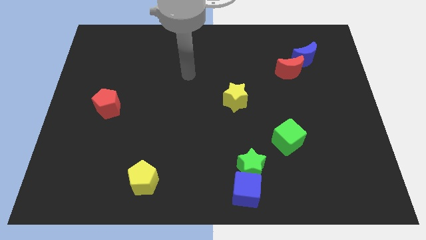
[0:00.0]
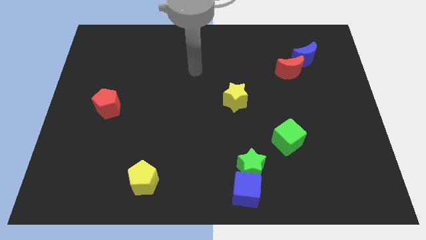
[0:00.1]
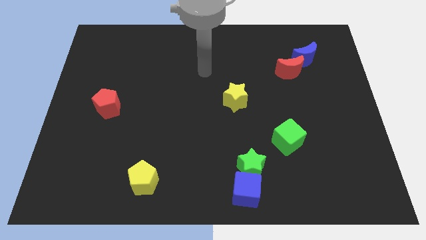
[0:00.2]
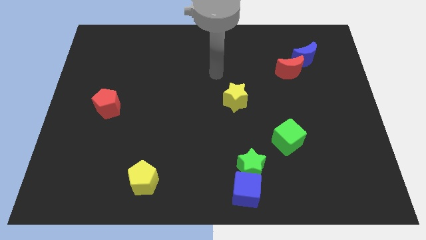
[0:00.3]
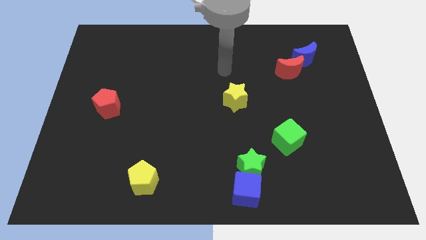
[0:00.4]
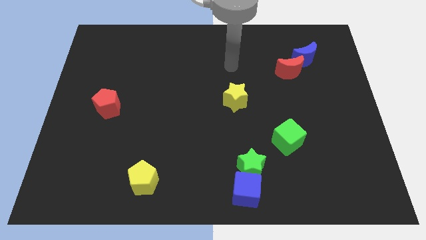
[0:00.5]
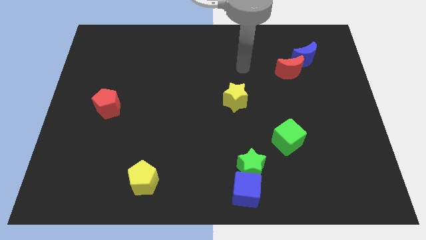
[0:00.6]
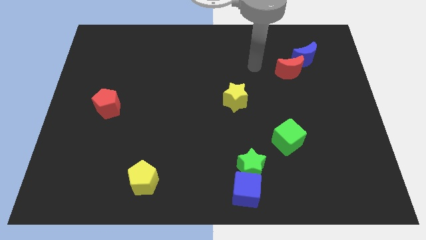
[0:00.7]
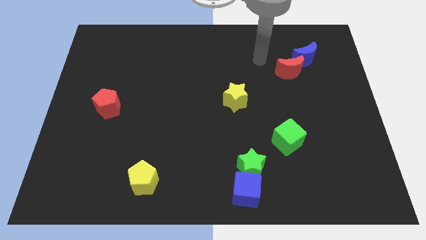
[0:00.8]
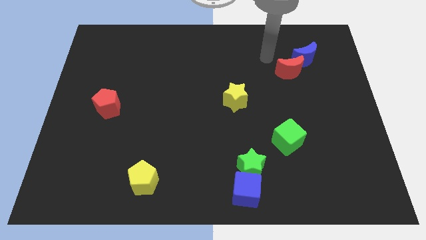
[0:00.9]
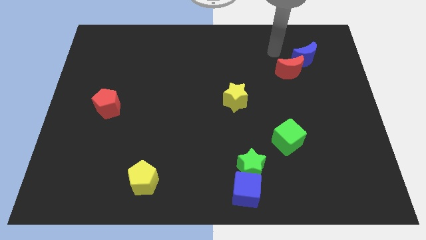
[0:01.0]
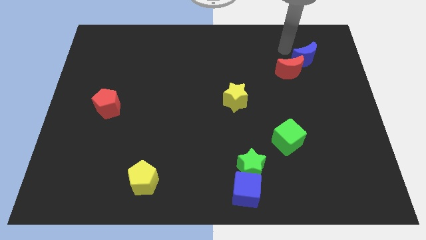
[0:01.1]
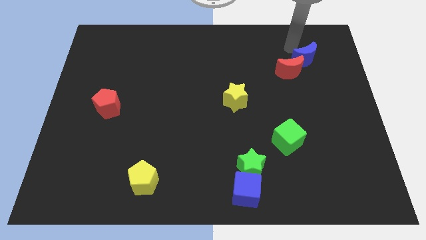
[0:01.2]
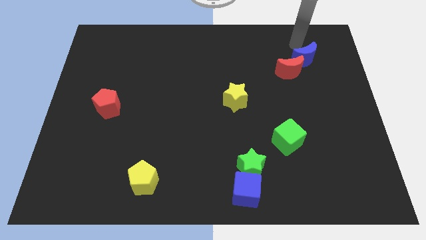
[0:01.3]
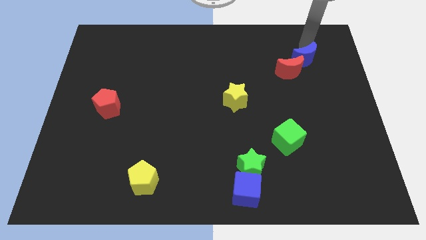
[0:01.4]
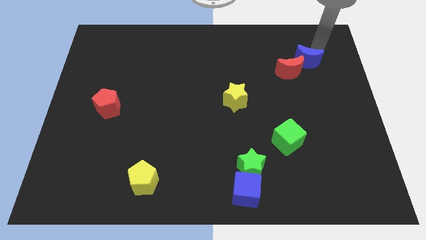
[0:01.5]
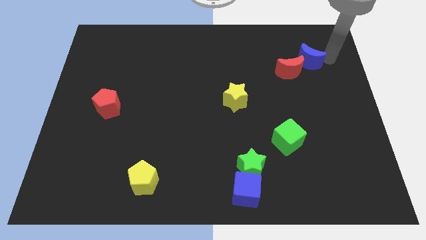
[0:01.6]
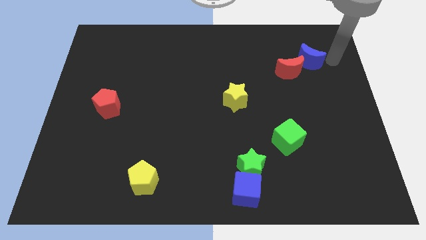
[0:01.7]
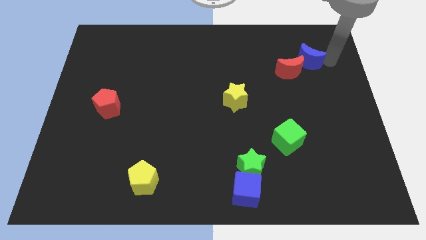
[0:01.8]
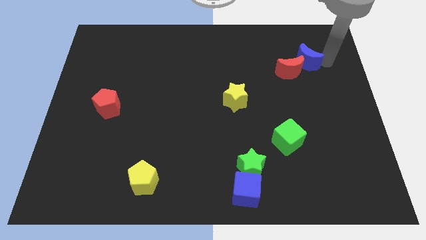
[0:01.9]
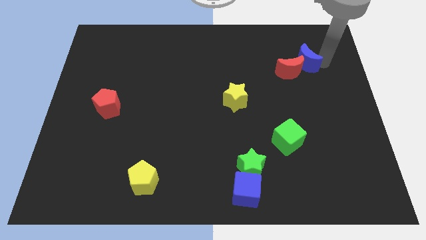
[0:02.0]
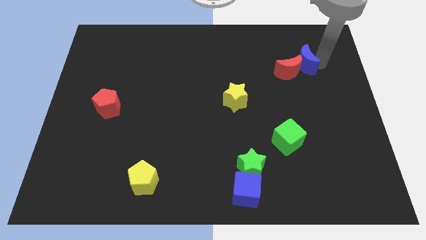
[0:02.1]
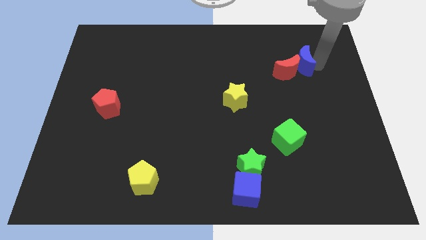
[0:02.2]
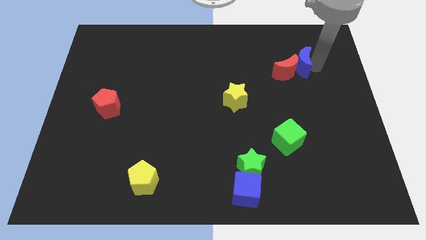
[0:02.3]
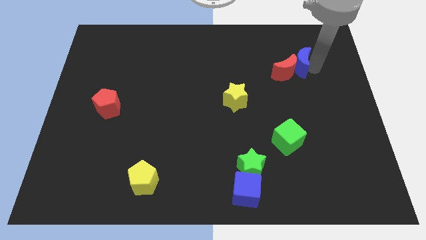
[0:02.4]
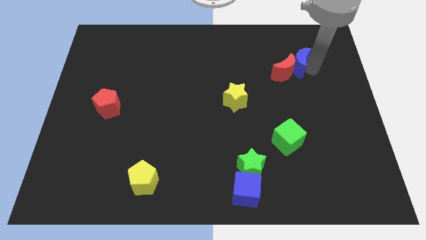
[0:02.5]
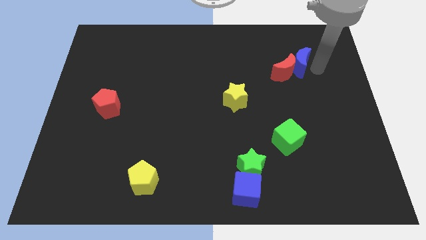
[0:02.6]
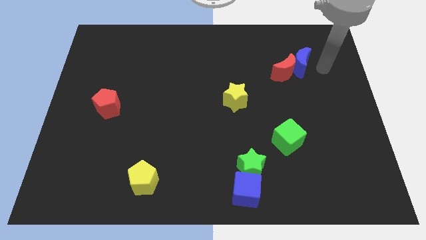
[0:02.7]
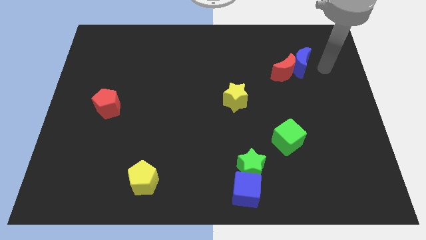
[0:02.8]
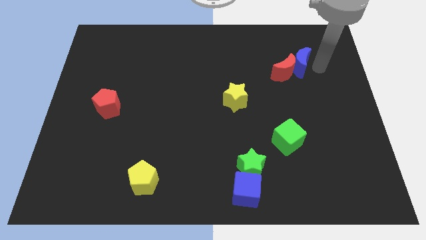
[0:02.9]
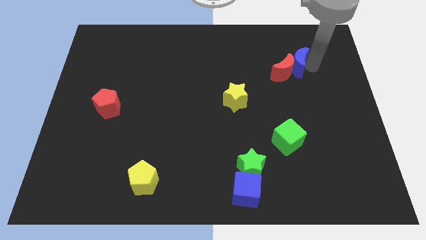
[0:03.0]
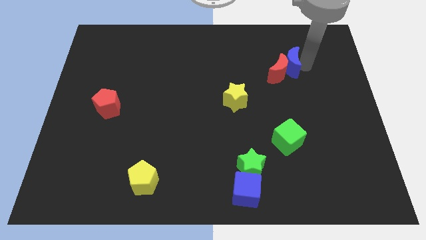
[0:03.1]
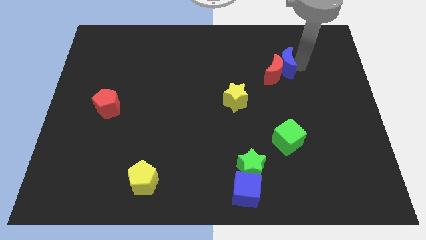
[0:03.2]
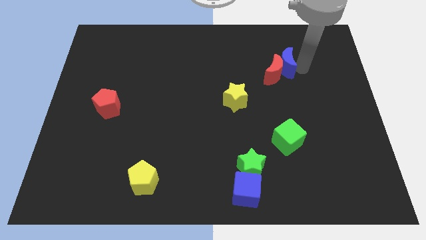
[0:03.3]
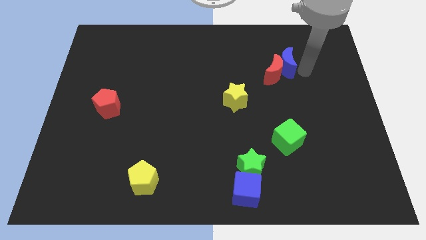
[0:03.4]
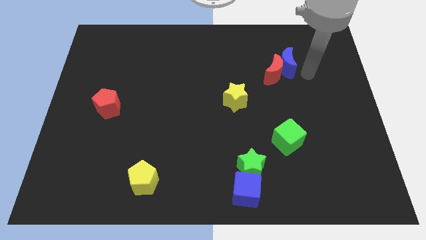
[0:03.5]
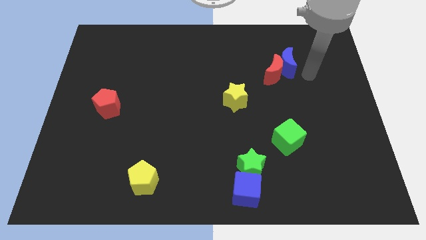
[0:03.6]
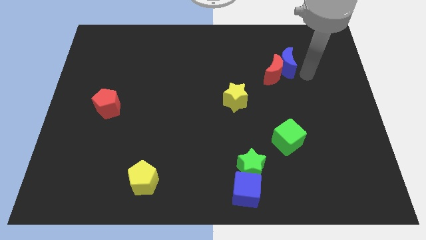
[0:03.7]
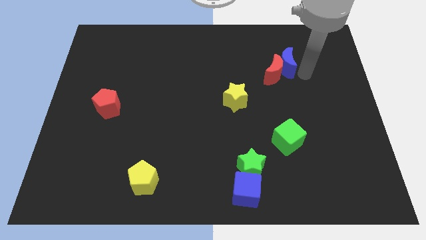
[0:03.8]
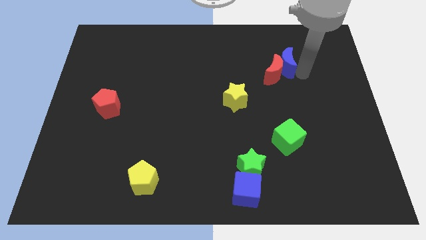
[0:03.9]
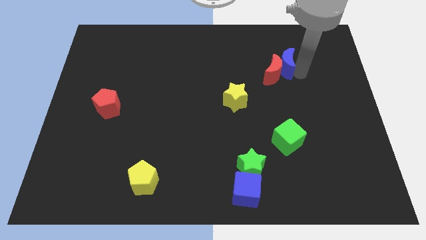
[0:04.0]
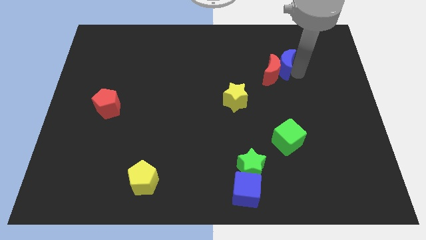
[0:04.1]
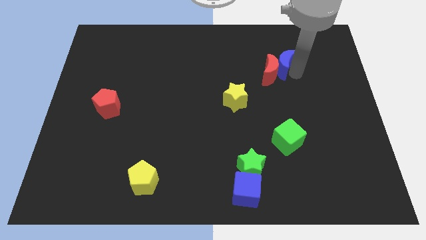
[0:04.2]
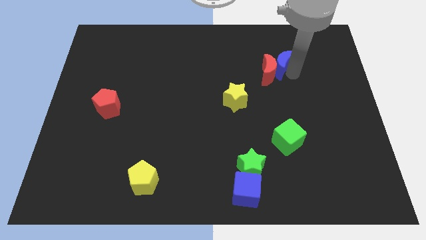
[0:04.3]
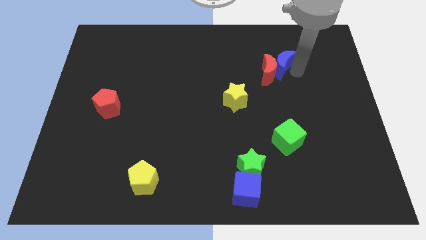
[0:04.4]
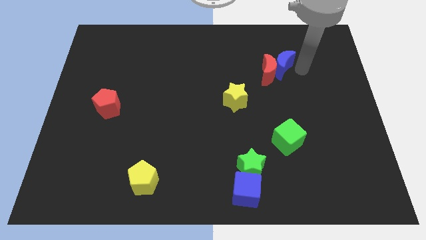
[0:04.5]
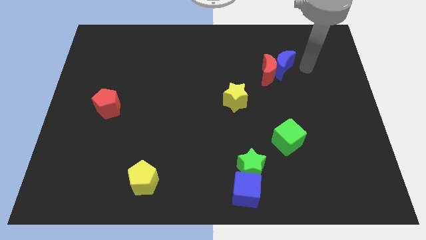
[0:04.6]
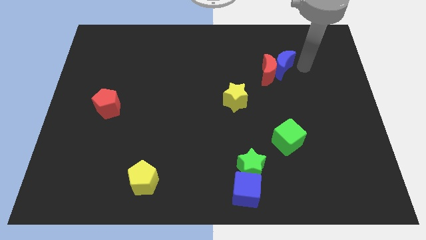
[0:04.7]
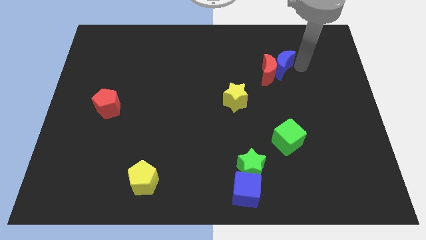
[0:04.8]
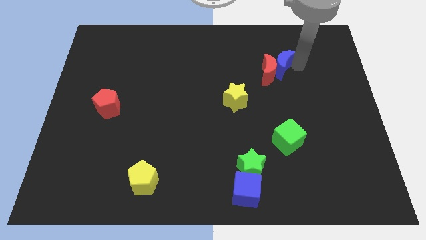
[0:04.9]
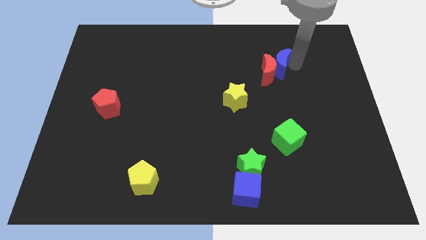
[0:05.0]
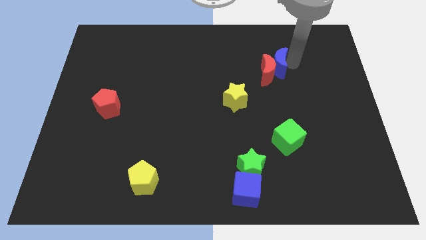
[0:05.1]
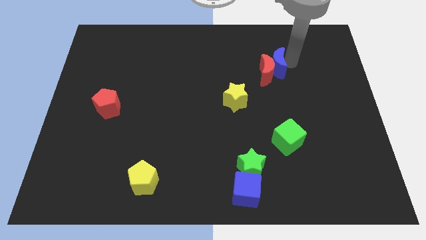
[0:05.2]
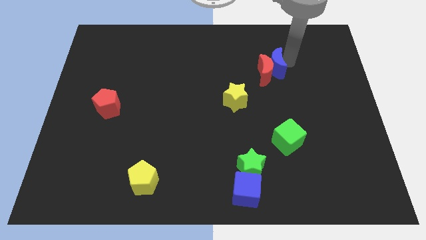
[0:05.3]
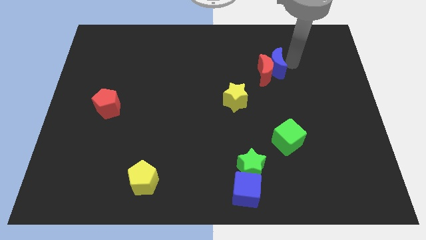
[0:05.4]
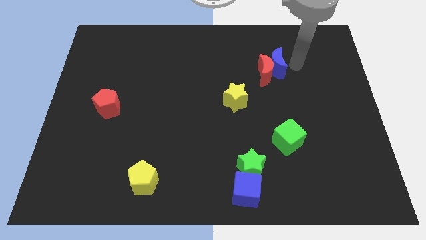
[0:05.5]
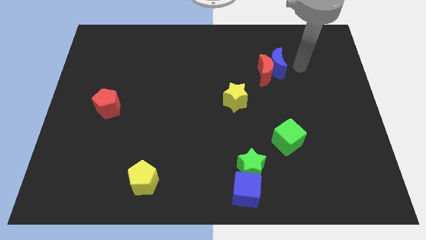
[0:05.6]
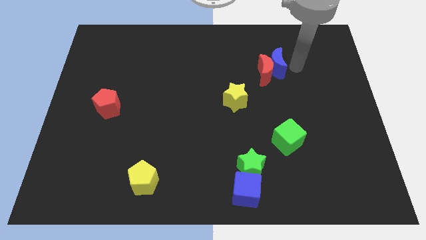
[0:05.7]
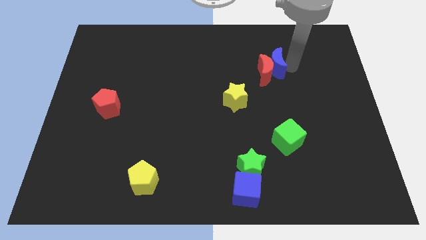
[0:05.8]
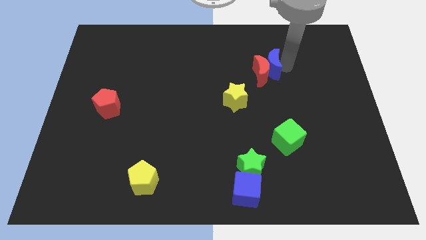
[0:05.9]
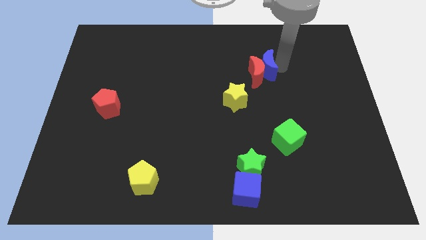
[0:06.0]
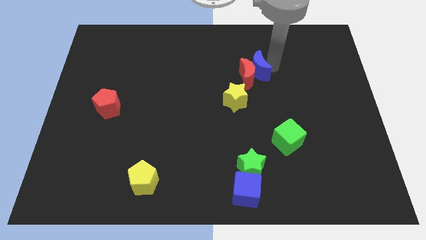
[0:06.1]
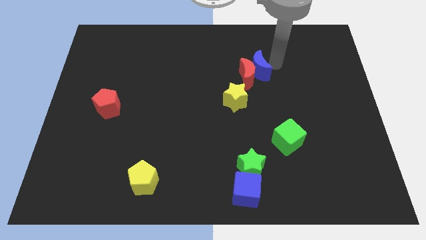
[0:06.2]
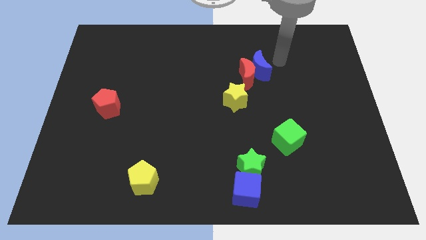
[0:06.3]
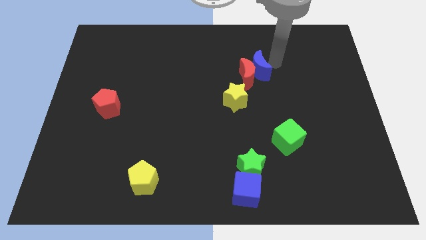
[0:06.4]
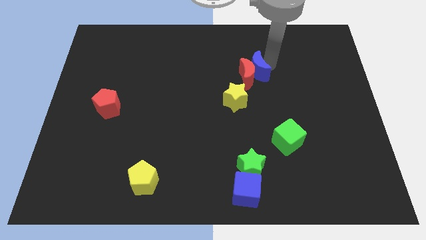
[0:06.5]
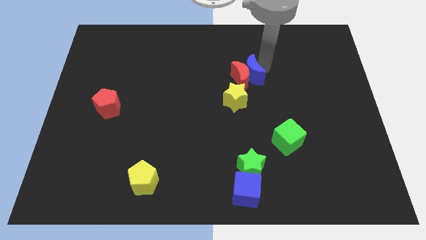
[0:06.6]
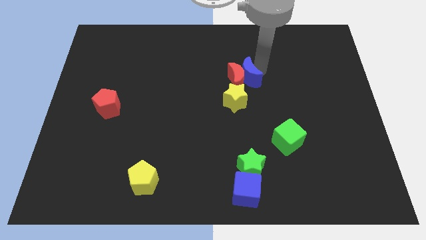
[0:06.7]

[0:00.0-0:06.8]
move the blue moon to the center

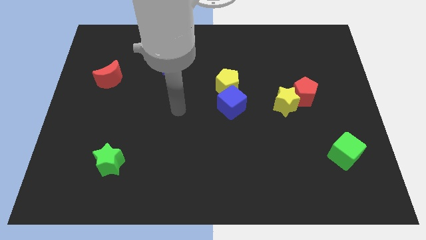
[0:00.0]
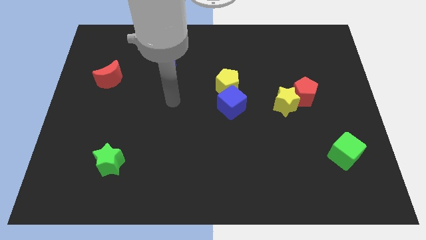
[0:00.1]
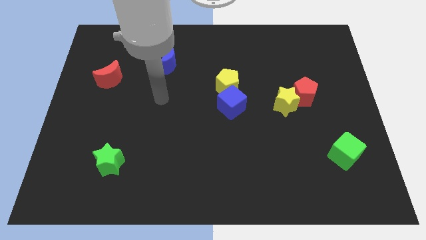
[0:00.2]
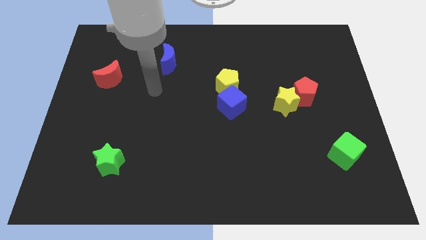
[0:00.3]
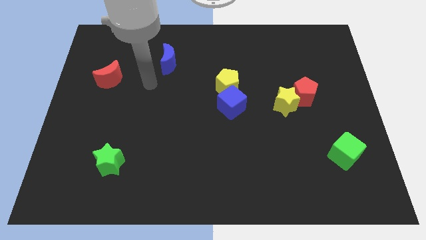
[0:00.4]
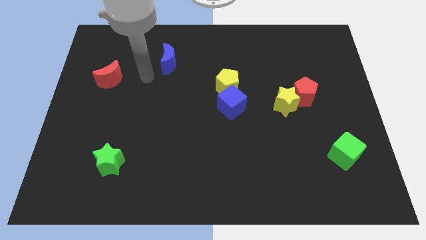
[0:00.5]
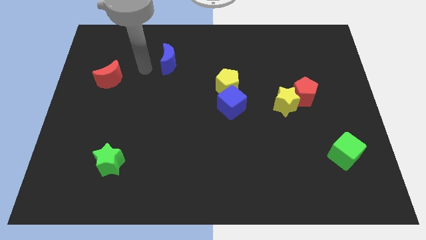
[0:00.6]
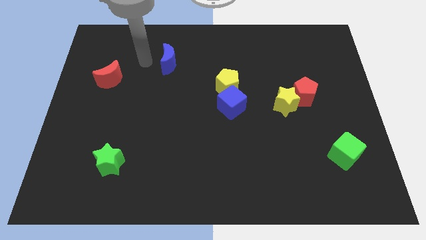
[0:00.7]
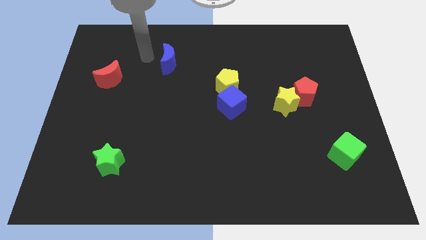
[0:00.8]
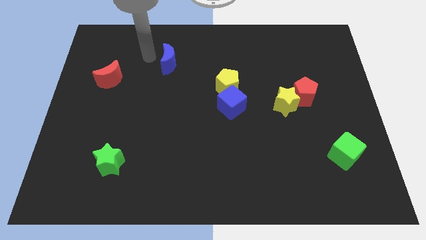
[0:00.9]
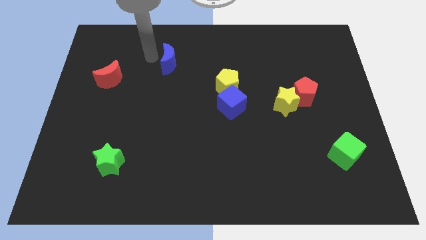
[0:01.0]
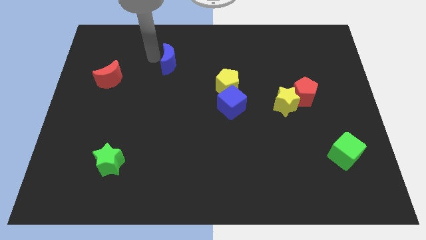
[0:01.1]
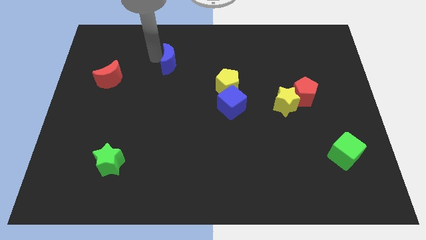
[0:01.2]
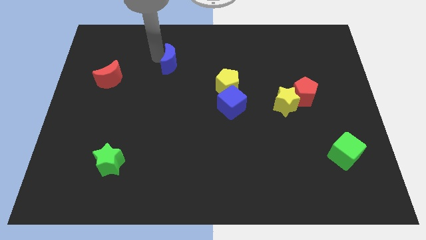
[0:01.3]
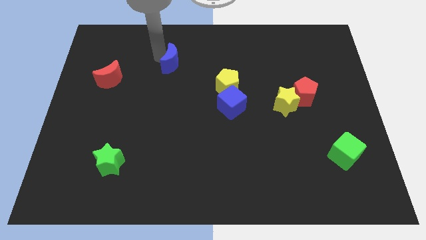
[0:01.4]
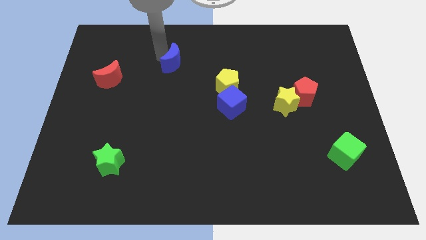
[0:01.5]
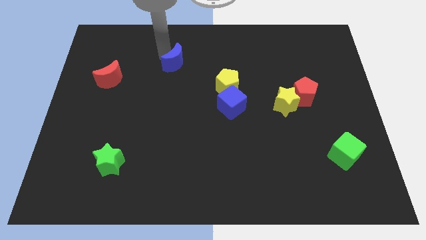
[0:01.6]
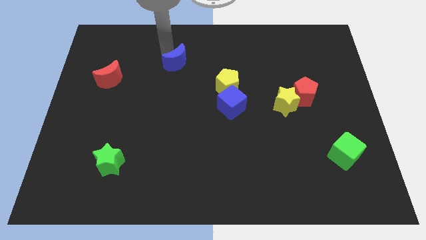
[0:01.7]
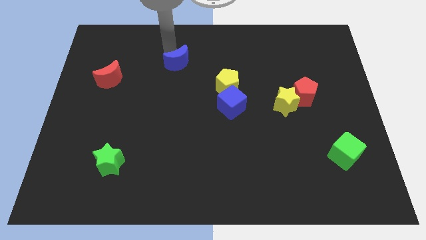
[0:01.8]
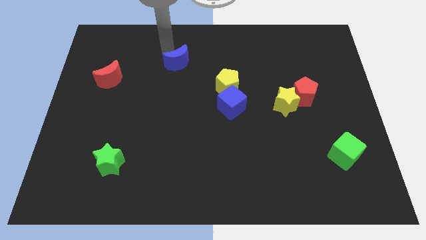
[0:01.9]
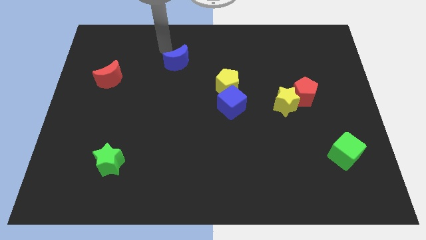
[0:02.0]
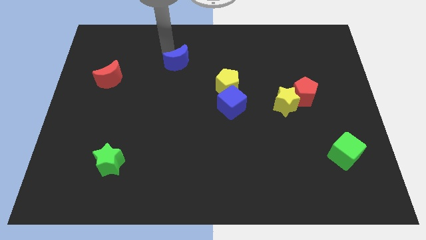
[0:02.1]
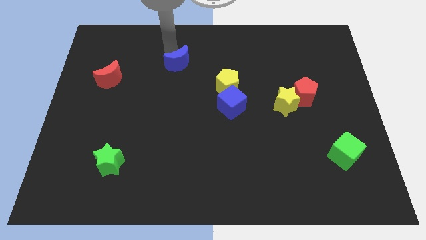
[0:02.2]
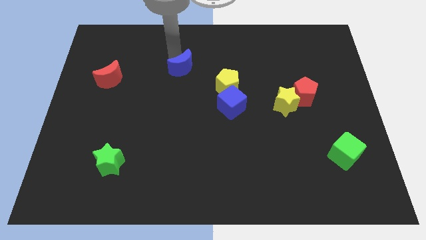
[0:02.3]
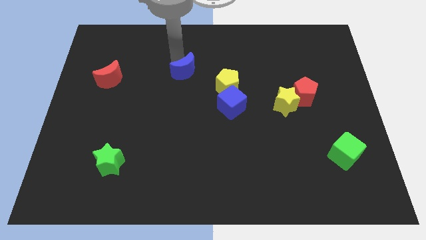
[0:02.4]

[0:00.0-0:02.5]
put the blue moon to the center
